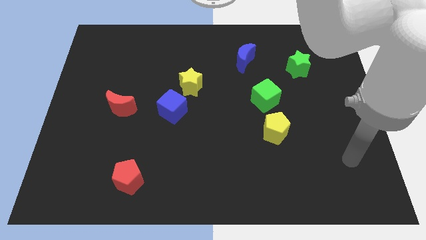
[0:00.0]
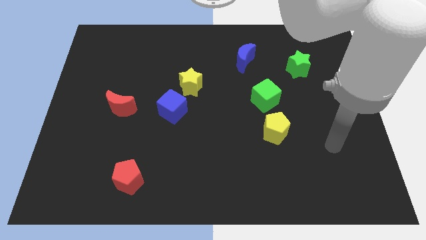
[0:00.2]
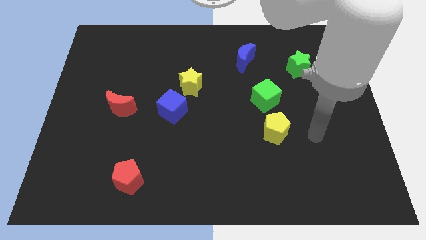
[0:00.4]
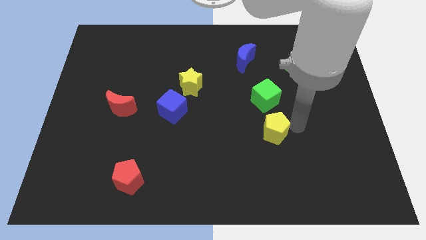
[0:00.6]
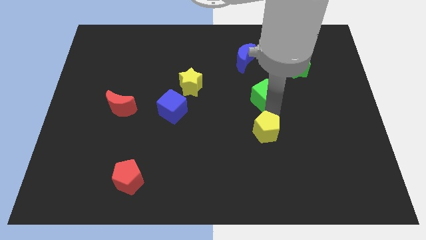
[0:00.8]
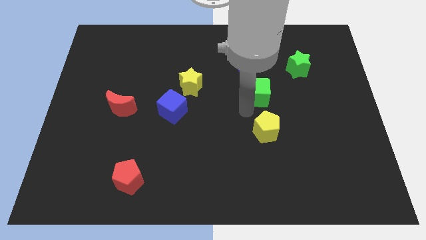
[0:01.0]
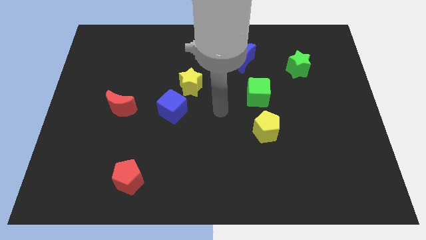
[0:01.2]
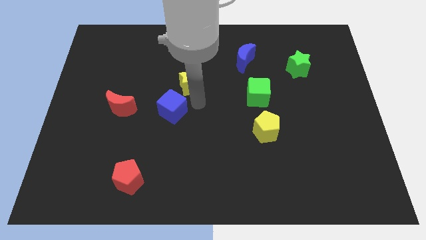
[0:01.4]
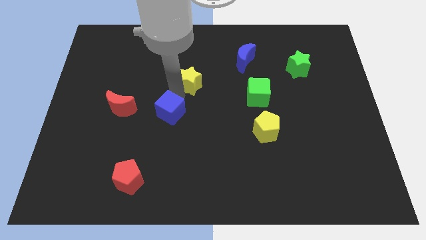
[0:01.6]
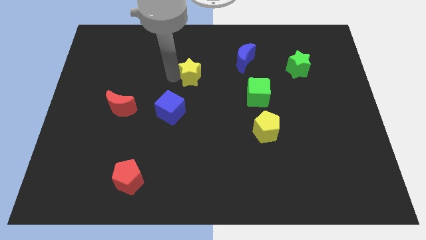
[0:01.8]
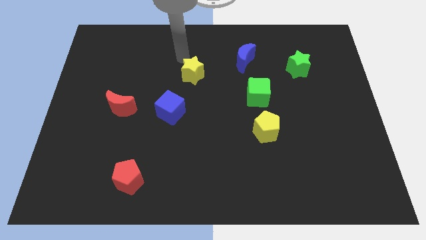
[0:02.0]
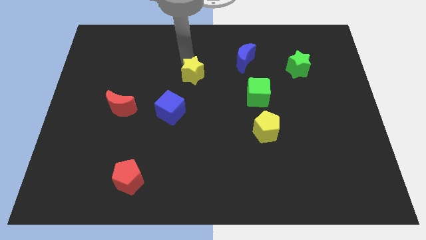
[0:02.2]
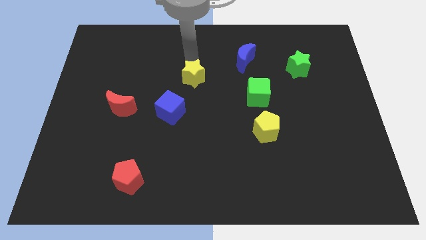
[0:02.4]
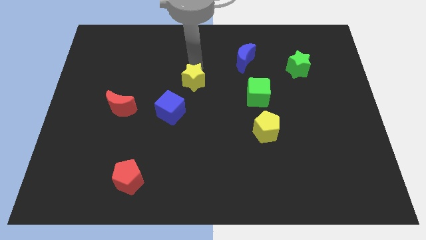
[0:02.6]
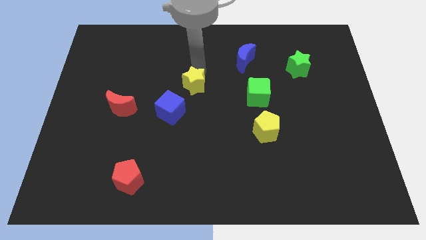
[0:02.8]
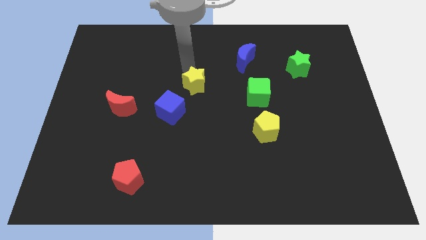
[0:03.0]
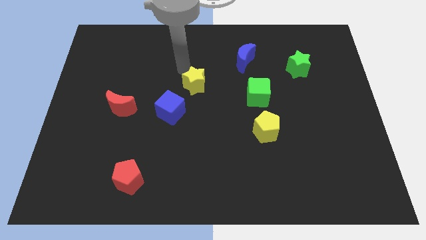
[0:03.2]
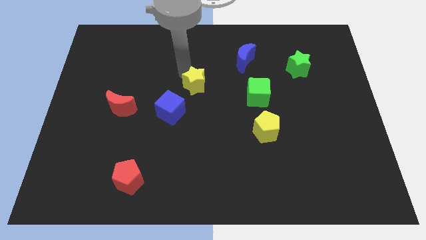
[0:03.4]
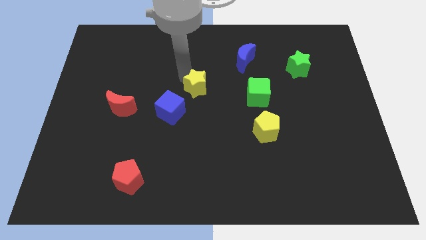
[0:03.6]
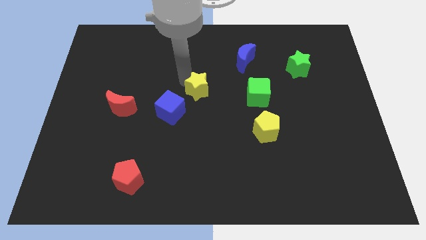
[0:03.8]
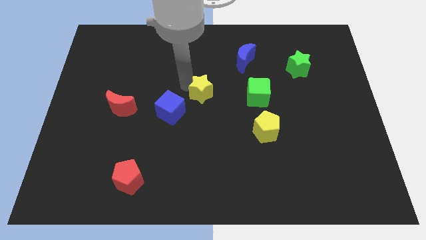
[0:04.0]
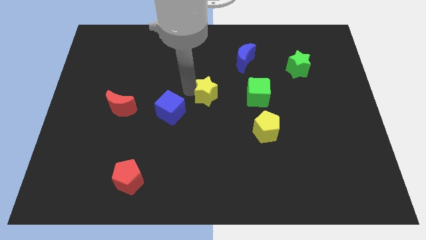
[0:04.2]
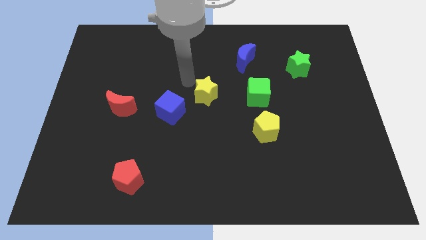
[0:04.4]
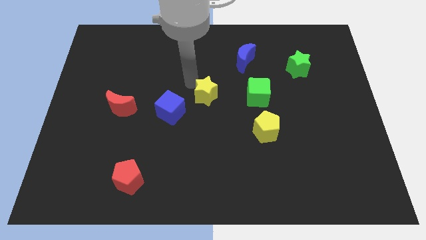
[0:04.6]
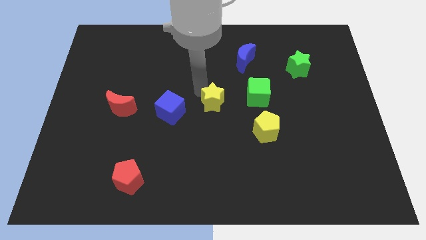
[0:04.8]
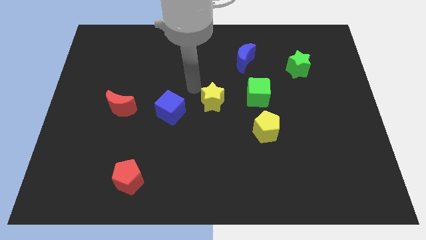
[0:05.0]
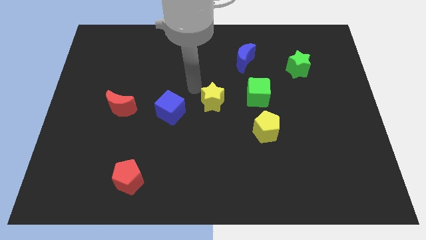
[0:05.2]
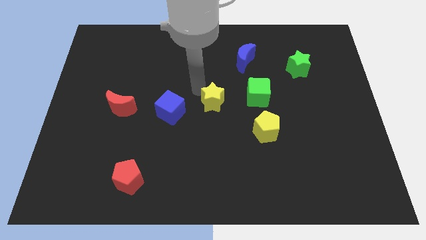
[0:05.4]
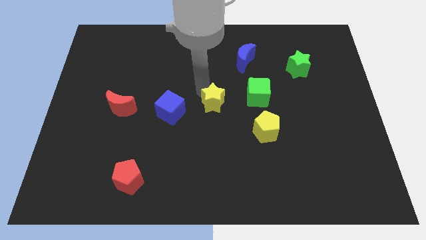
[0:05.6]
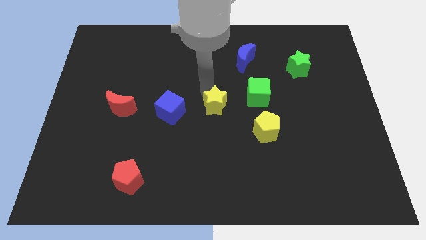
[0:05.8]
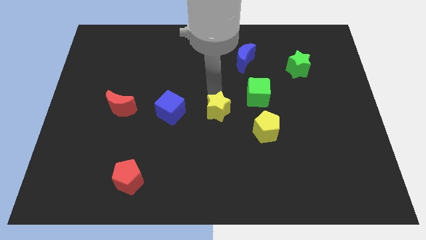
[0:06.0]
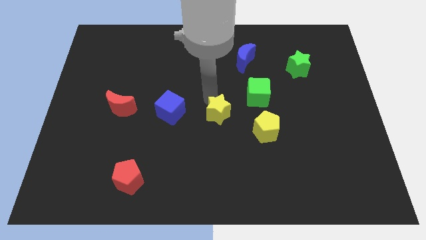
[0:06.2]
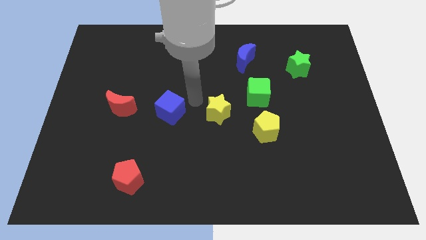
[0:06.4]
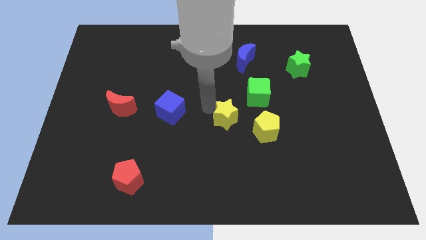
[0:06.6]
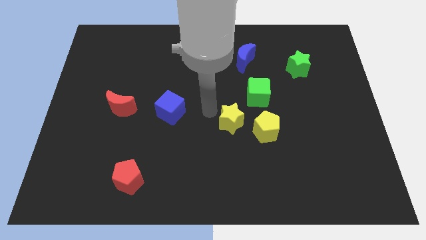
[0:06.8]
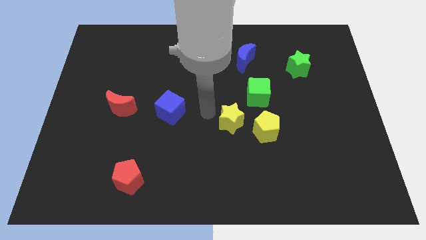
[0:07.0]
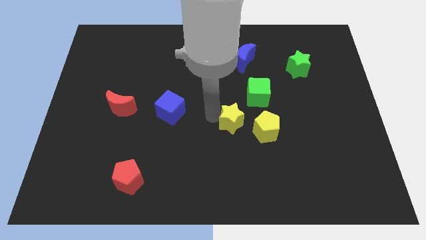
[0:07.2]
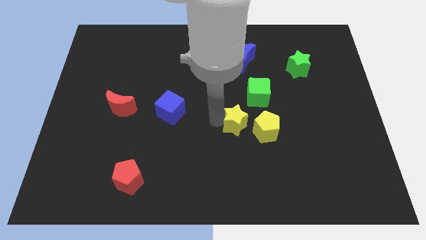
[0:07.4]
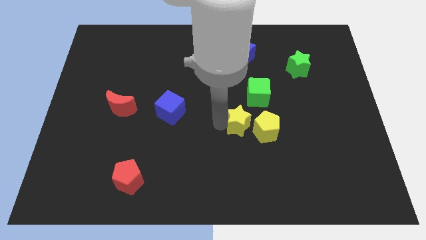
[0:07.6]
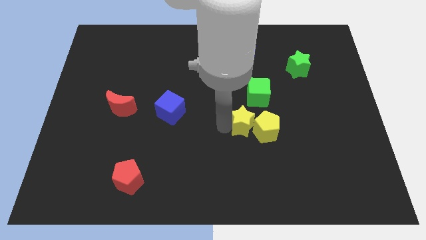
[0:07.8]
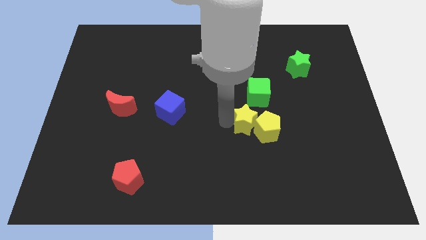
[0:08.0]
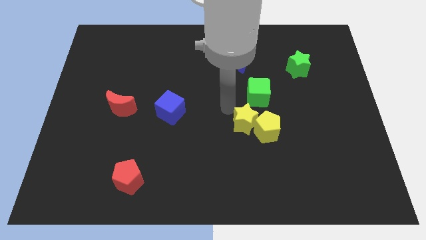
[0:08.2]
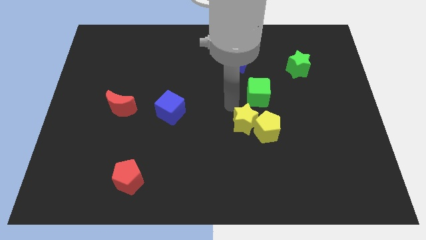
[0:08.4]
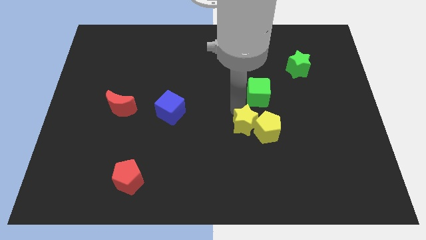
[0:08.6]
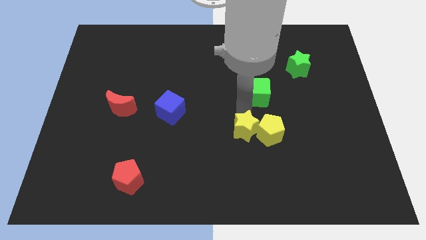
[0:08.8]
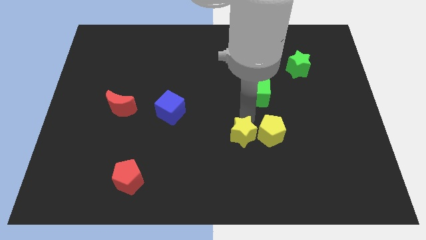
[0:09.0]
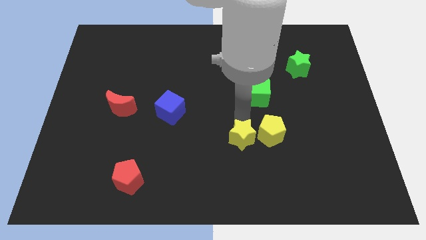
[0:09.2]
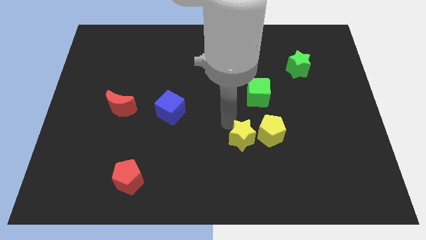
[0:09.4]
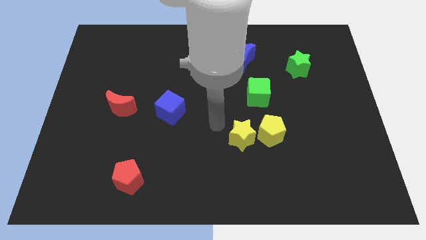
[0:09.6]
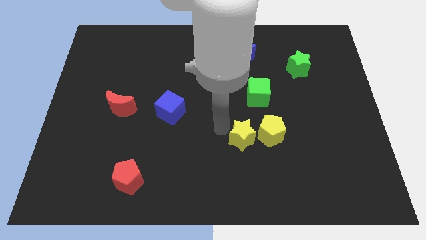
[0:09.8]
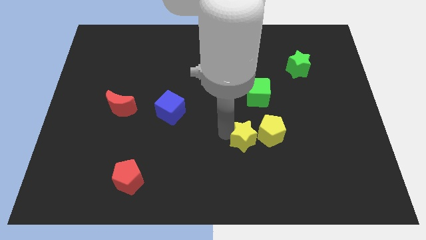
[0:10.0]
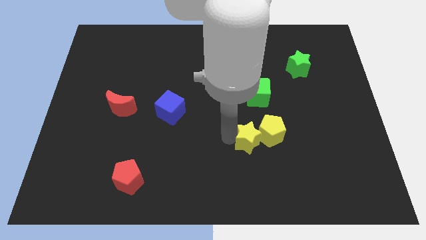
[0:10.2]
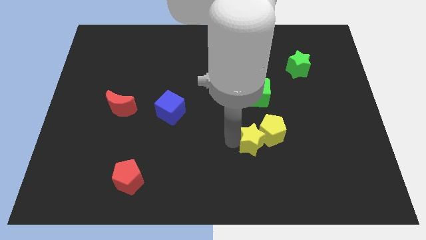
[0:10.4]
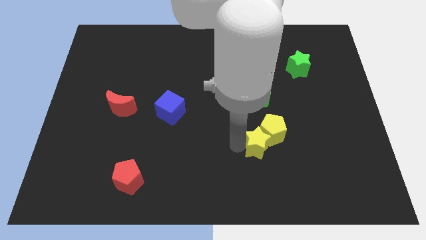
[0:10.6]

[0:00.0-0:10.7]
slide the yellow star to the bottom of the yellow pentagon

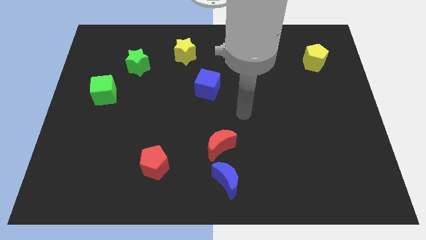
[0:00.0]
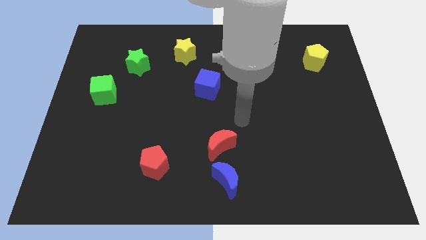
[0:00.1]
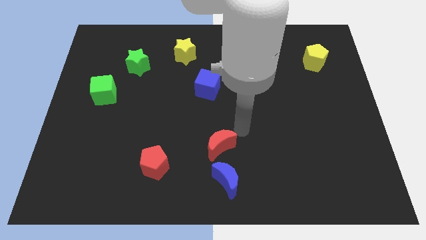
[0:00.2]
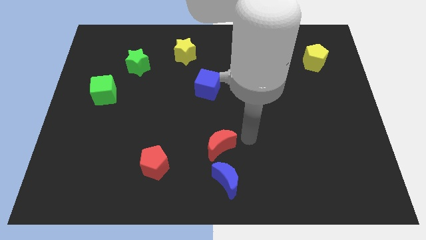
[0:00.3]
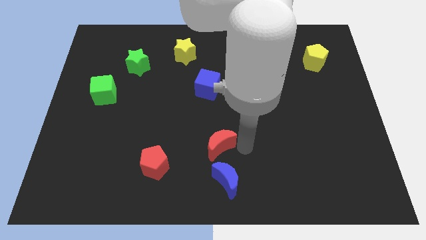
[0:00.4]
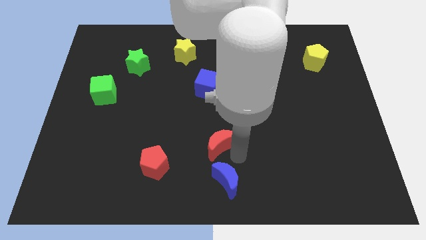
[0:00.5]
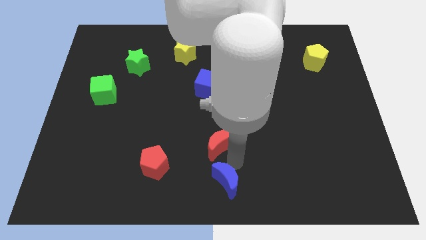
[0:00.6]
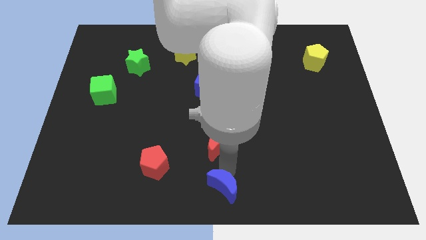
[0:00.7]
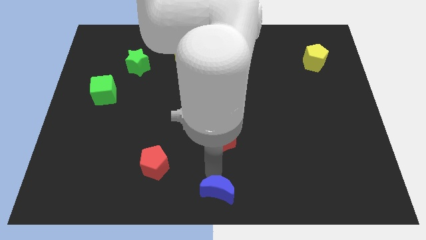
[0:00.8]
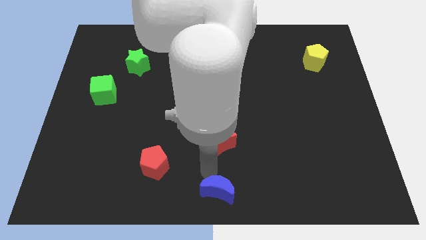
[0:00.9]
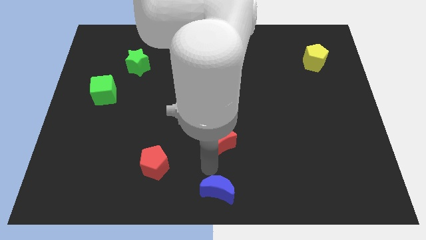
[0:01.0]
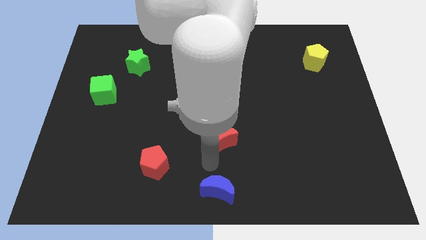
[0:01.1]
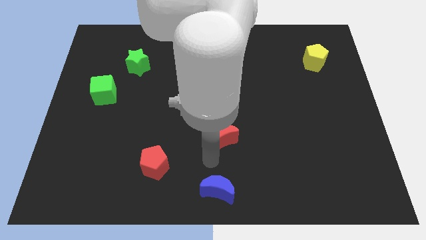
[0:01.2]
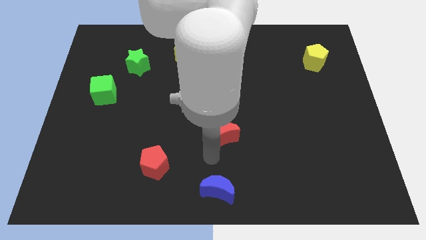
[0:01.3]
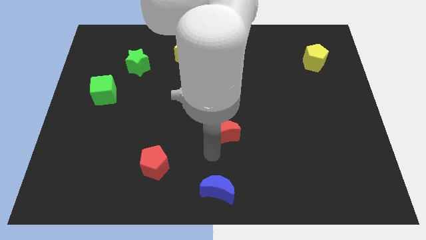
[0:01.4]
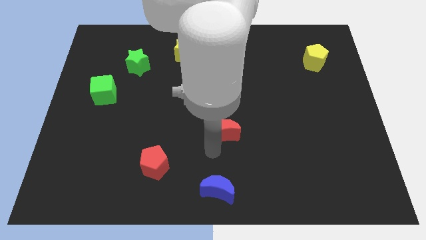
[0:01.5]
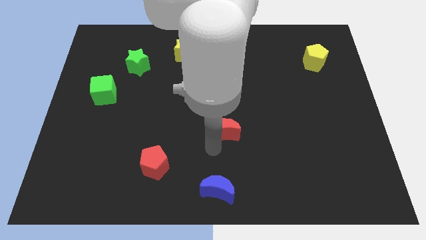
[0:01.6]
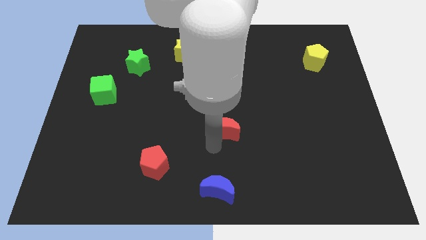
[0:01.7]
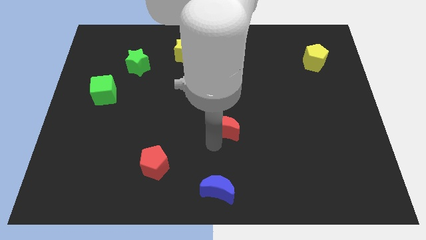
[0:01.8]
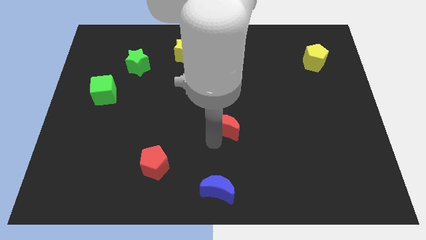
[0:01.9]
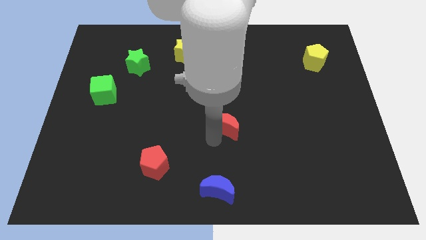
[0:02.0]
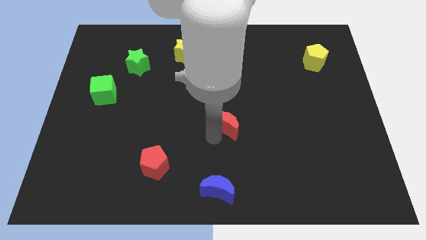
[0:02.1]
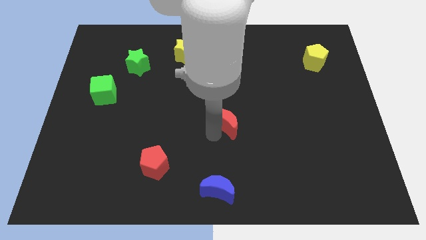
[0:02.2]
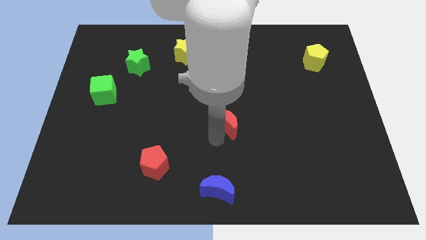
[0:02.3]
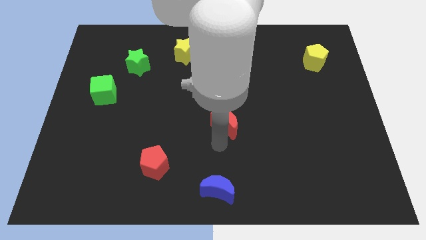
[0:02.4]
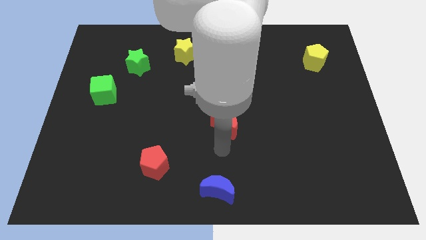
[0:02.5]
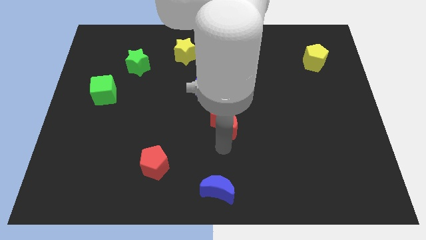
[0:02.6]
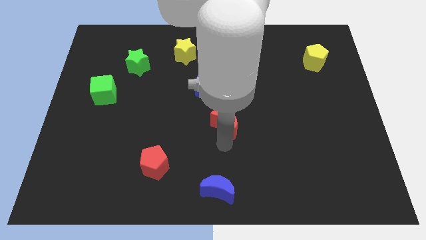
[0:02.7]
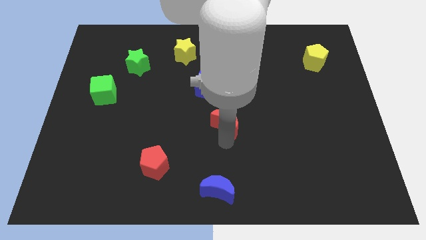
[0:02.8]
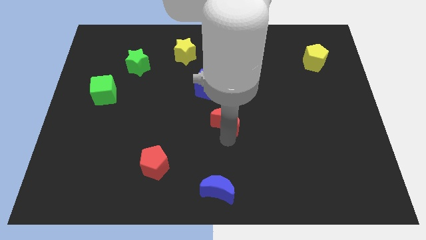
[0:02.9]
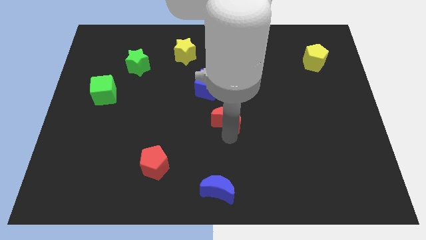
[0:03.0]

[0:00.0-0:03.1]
push the red moon to the bottom right of the blue cube
